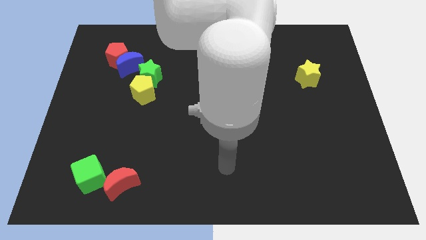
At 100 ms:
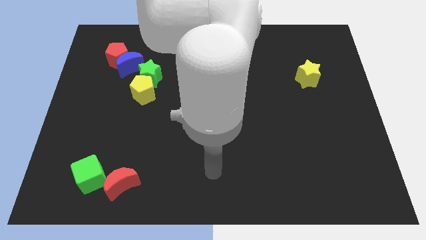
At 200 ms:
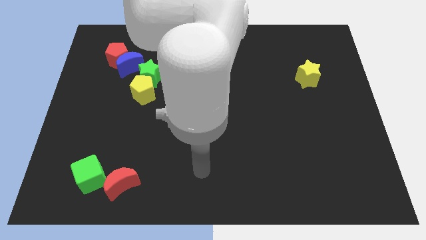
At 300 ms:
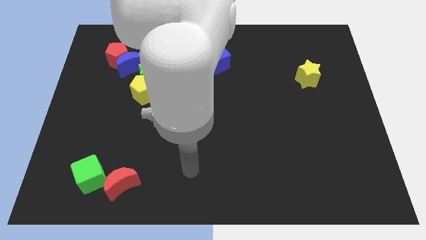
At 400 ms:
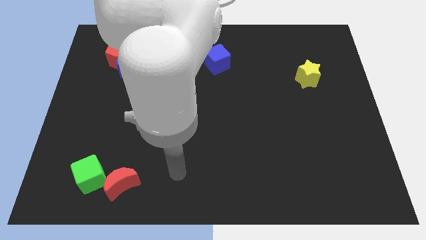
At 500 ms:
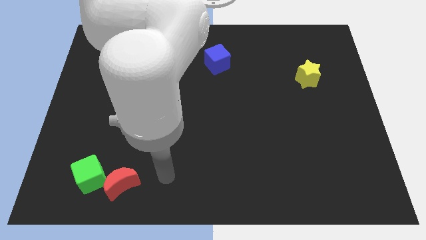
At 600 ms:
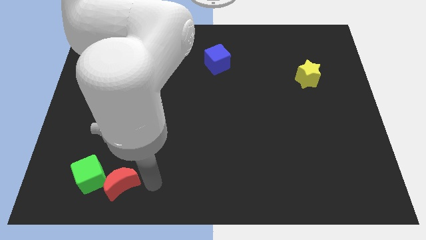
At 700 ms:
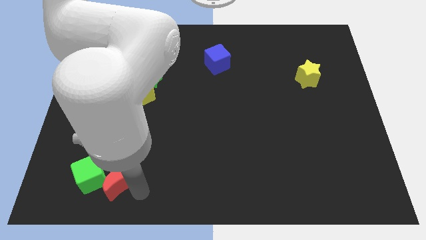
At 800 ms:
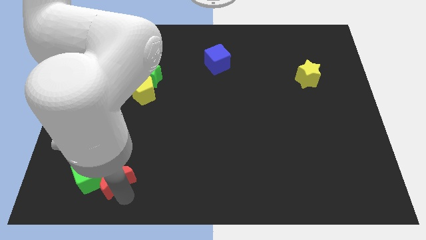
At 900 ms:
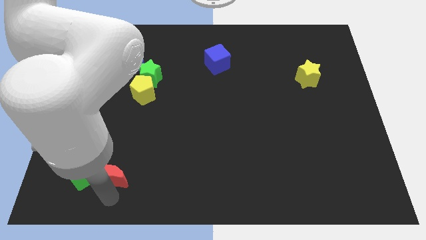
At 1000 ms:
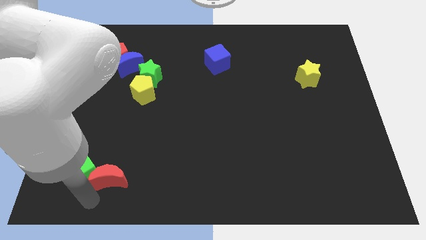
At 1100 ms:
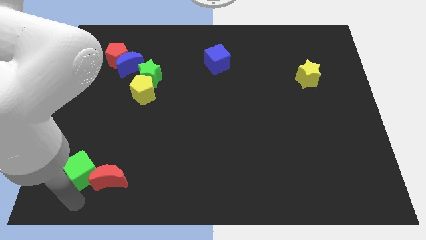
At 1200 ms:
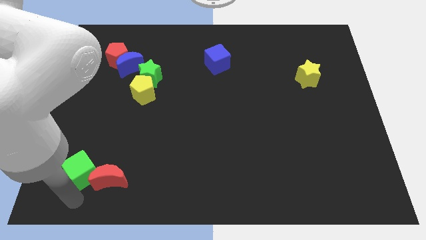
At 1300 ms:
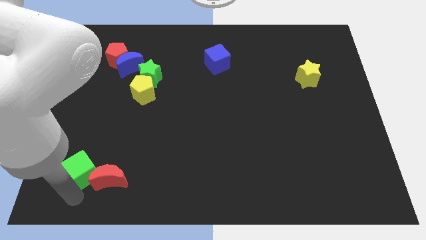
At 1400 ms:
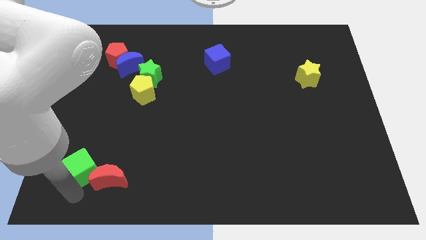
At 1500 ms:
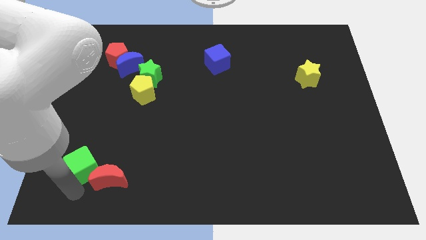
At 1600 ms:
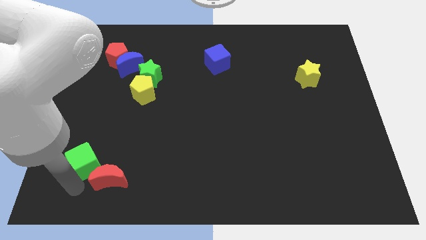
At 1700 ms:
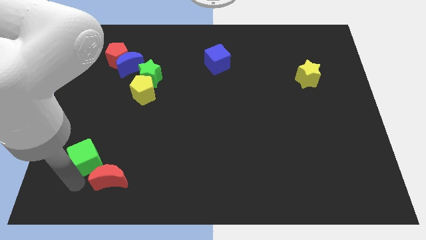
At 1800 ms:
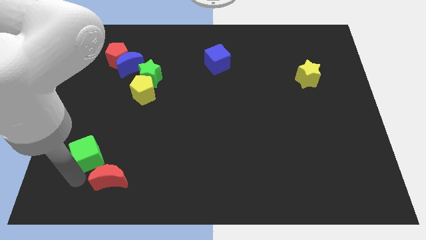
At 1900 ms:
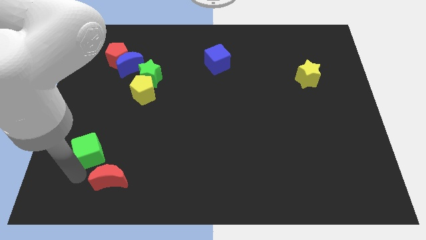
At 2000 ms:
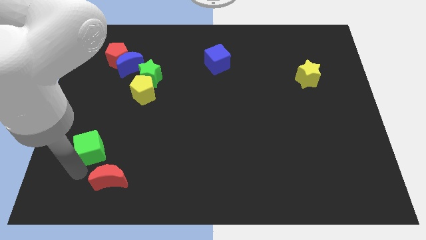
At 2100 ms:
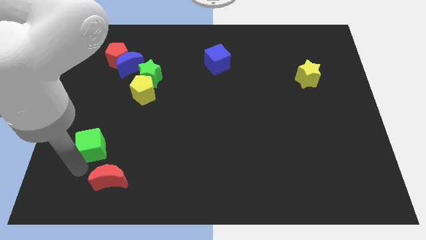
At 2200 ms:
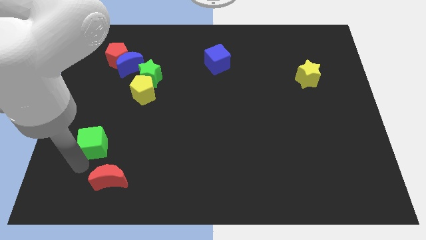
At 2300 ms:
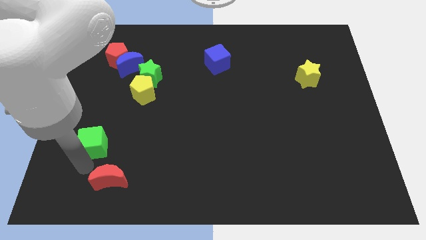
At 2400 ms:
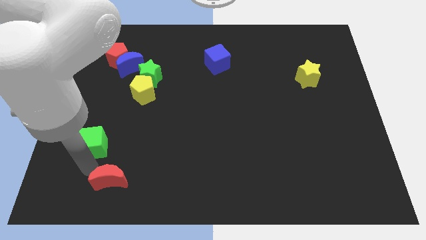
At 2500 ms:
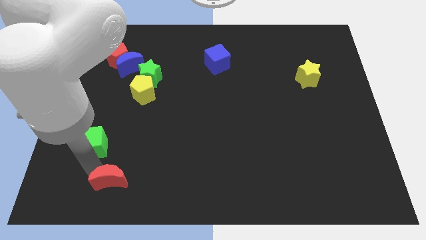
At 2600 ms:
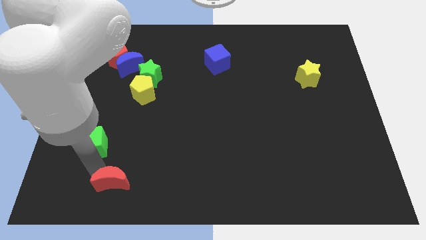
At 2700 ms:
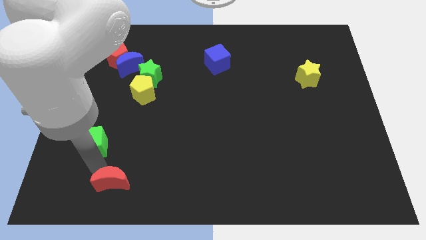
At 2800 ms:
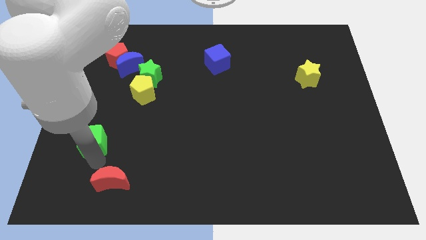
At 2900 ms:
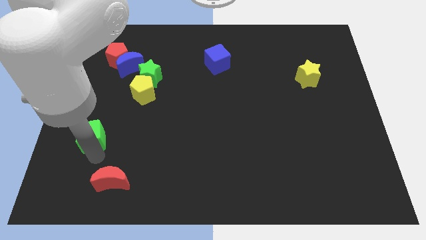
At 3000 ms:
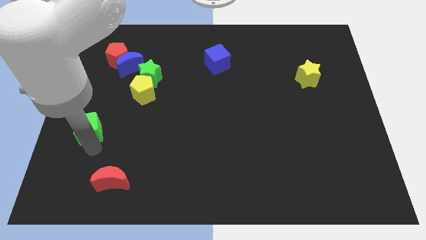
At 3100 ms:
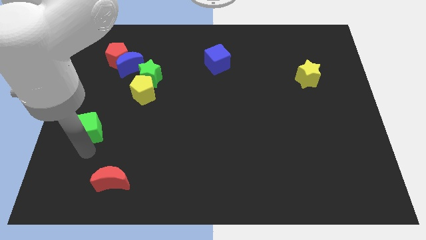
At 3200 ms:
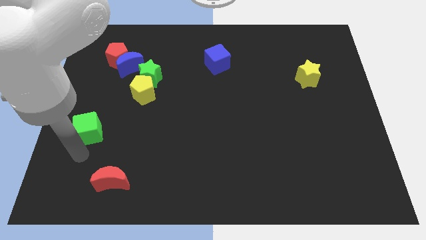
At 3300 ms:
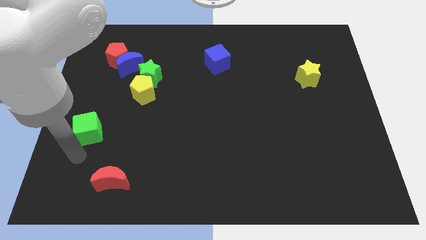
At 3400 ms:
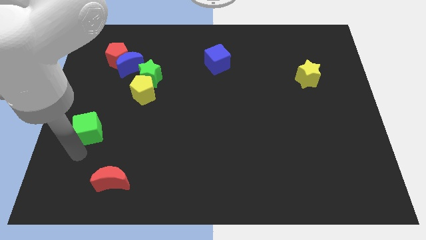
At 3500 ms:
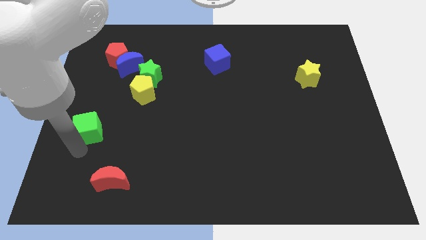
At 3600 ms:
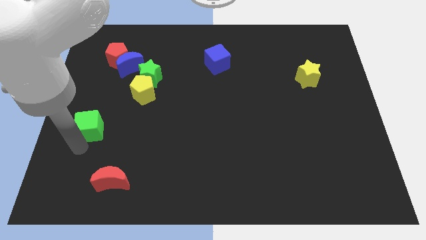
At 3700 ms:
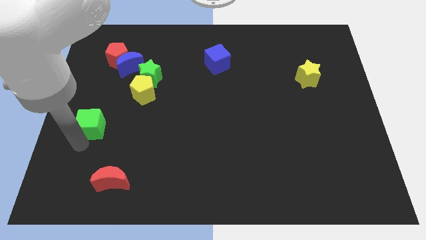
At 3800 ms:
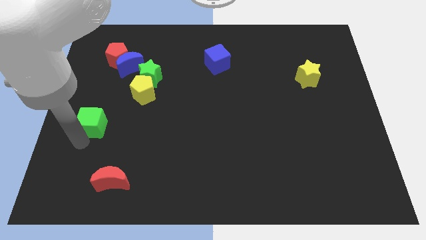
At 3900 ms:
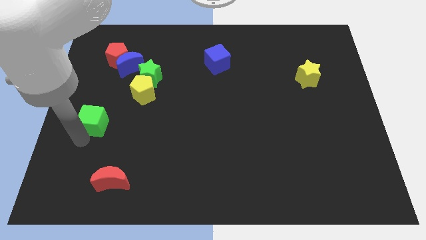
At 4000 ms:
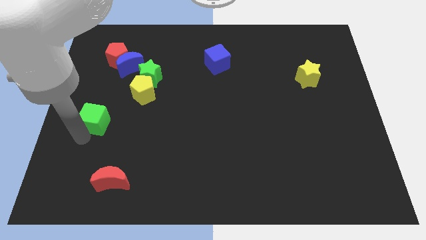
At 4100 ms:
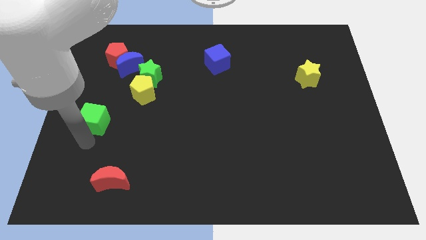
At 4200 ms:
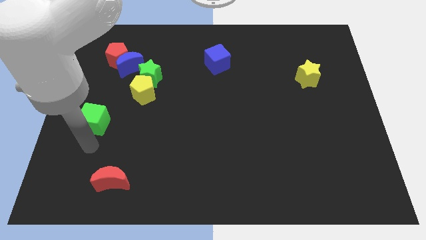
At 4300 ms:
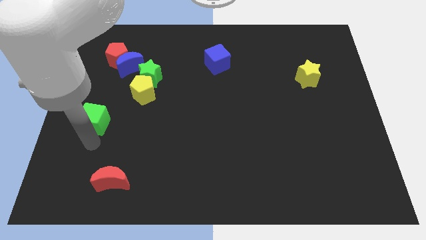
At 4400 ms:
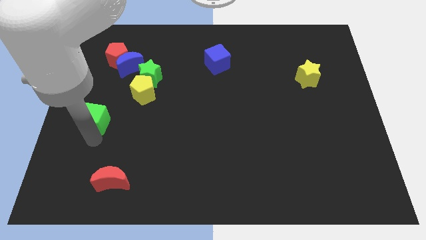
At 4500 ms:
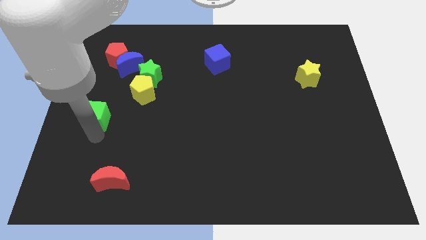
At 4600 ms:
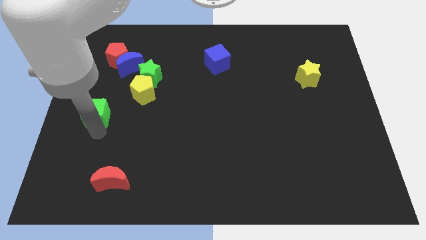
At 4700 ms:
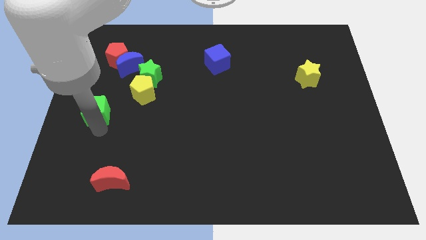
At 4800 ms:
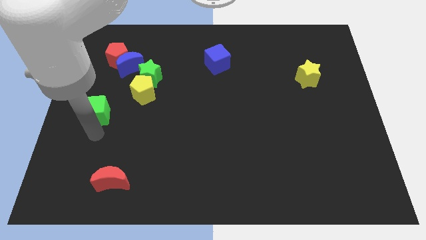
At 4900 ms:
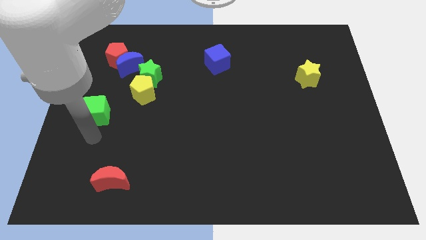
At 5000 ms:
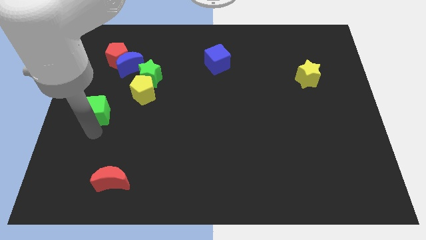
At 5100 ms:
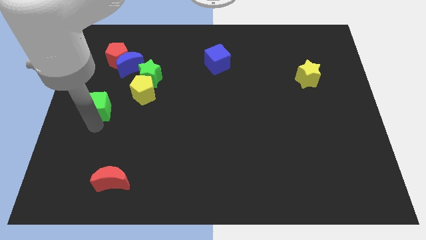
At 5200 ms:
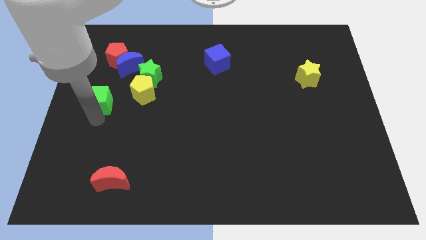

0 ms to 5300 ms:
slide the green cube to the left side of the yellow pentagon

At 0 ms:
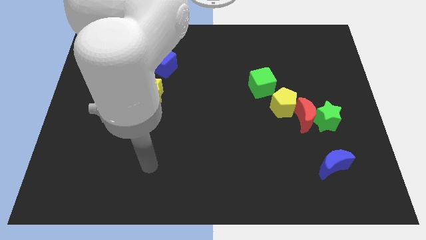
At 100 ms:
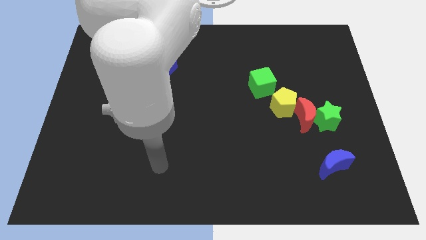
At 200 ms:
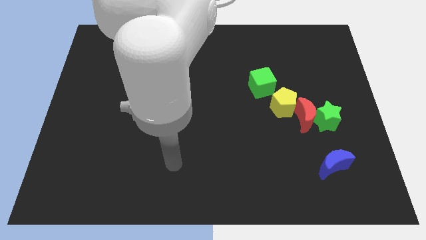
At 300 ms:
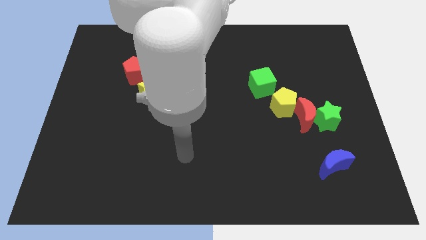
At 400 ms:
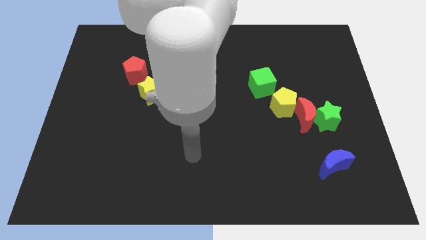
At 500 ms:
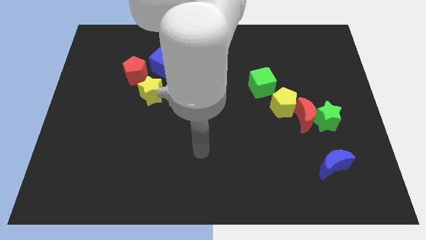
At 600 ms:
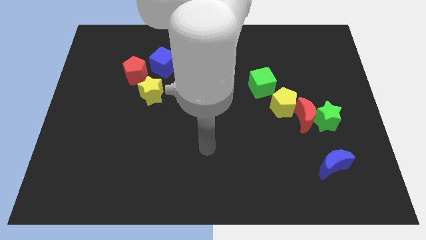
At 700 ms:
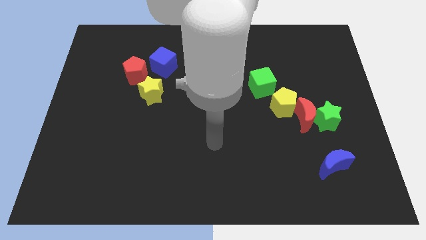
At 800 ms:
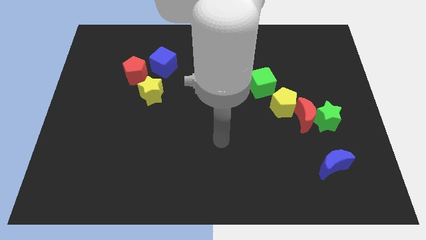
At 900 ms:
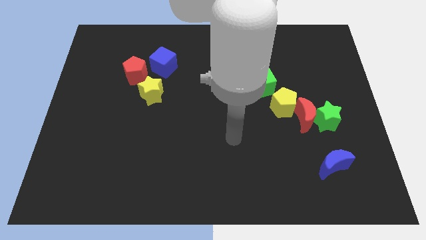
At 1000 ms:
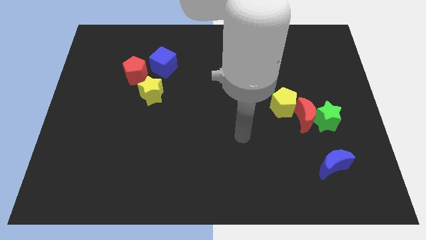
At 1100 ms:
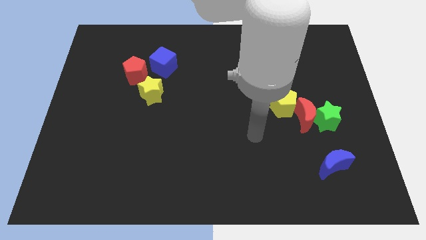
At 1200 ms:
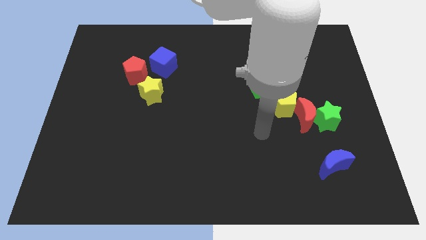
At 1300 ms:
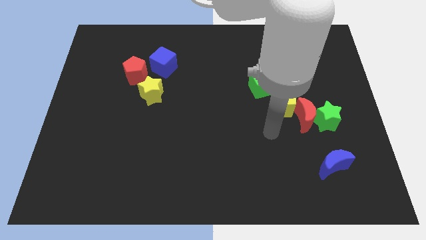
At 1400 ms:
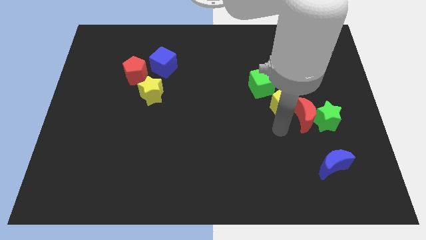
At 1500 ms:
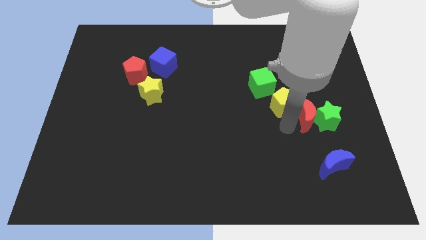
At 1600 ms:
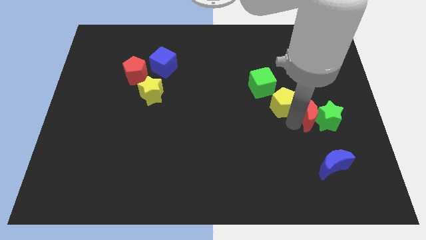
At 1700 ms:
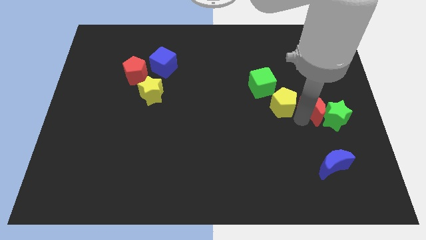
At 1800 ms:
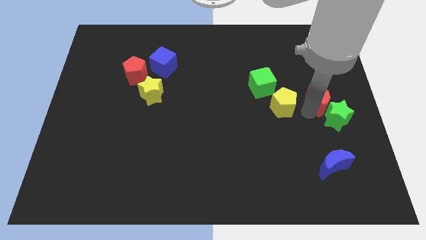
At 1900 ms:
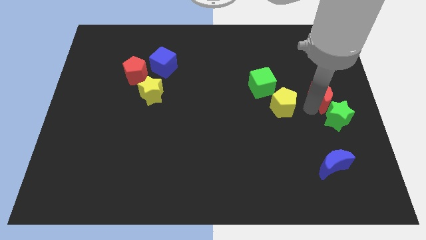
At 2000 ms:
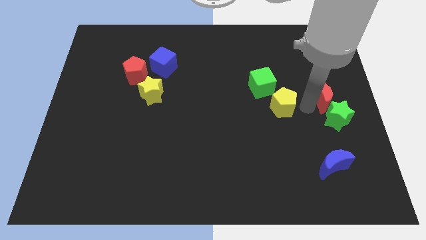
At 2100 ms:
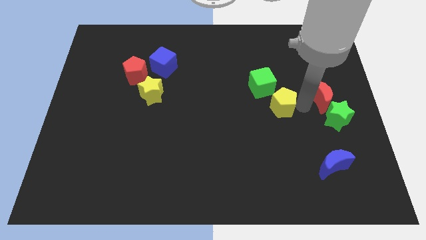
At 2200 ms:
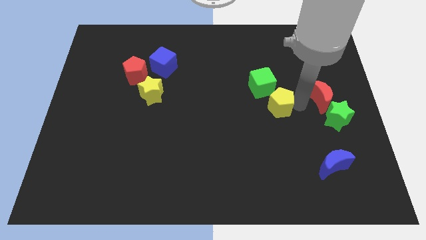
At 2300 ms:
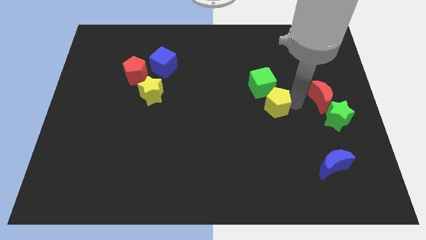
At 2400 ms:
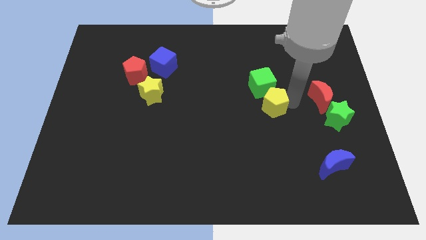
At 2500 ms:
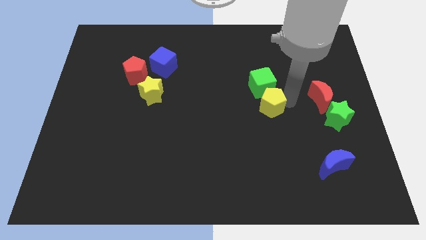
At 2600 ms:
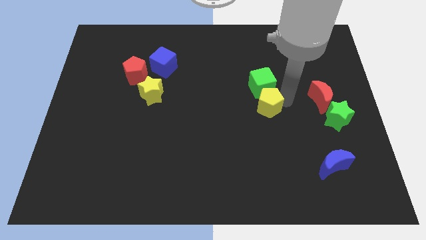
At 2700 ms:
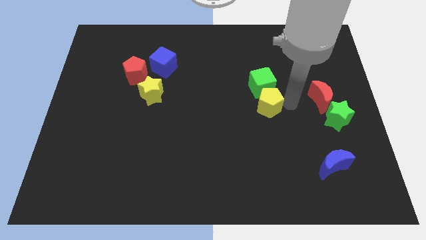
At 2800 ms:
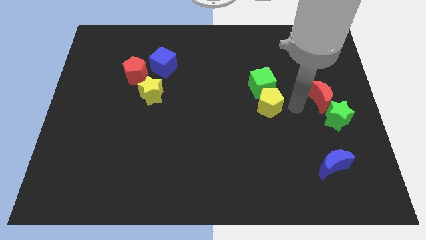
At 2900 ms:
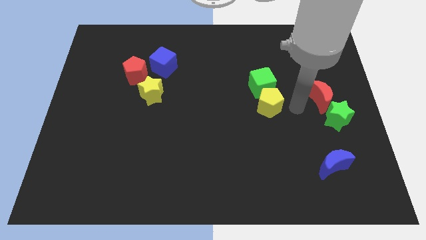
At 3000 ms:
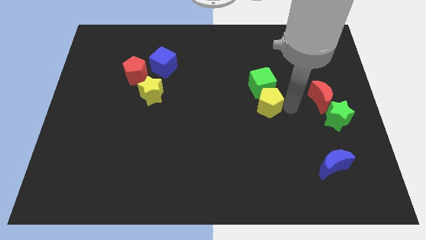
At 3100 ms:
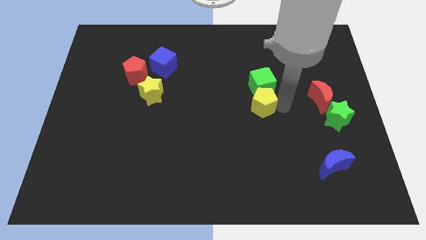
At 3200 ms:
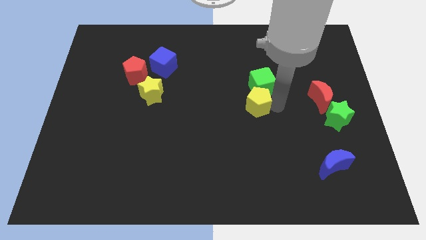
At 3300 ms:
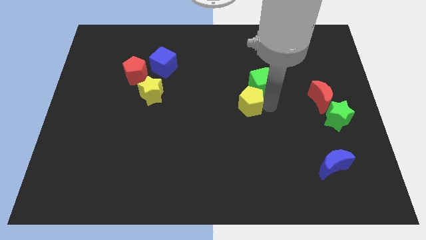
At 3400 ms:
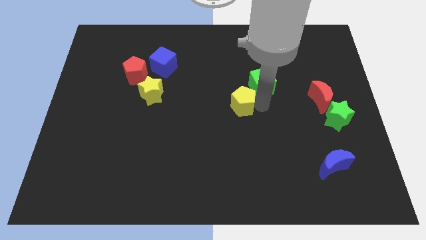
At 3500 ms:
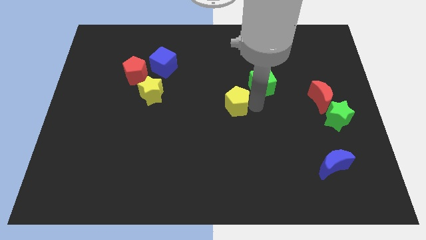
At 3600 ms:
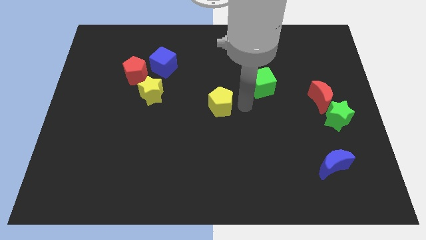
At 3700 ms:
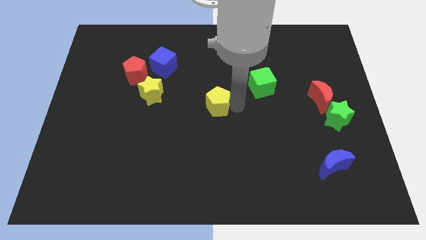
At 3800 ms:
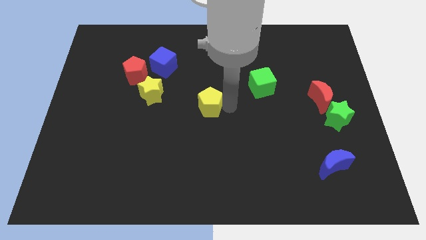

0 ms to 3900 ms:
slide the yellow pentagon just right of the yellow star
